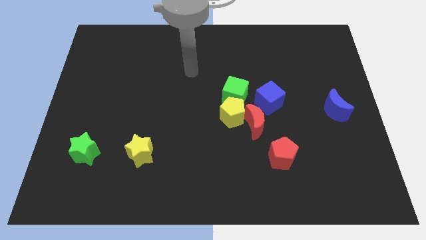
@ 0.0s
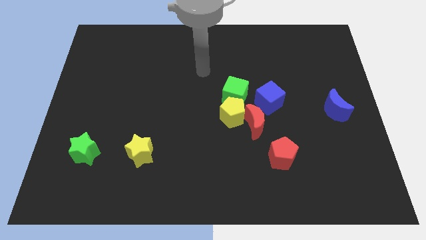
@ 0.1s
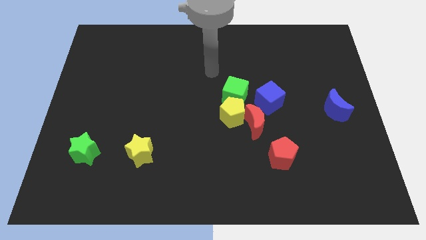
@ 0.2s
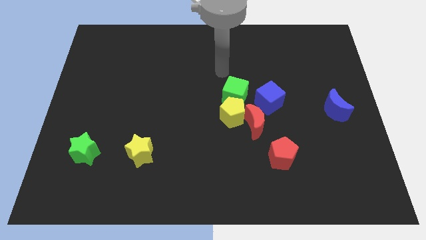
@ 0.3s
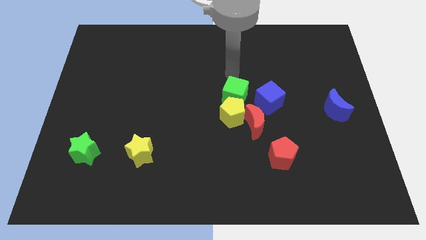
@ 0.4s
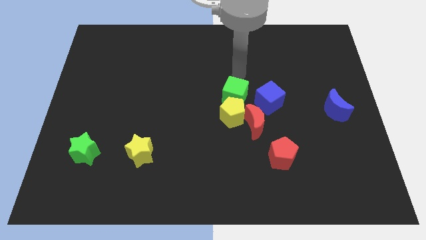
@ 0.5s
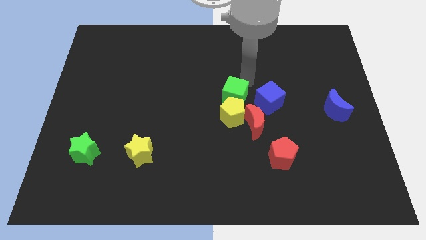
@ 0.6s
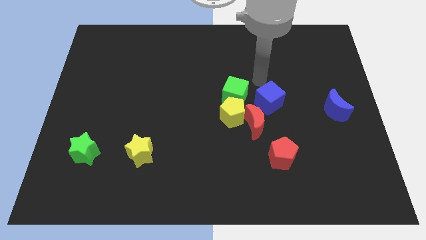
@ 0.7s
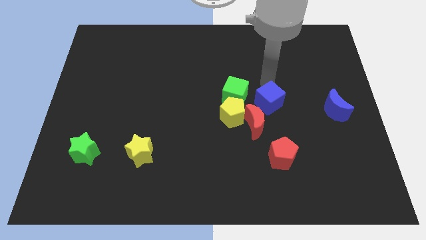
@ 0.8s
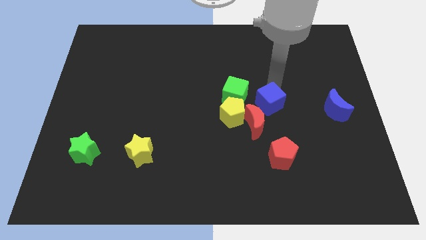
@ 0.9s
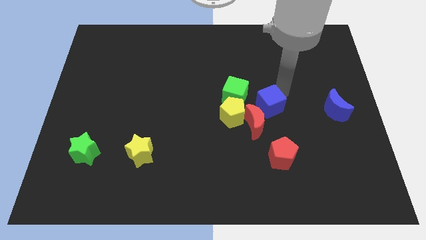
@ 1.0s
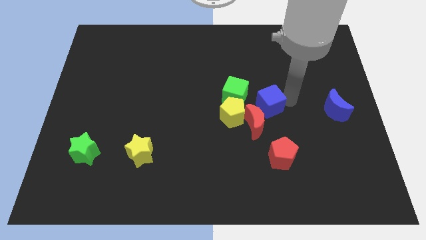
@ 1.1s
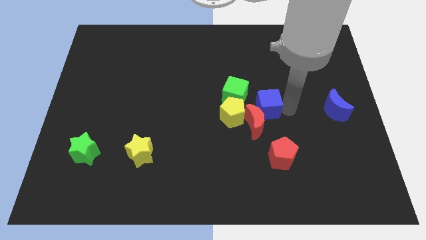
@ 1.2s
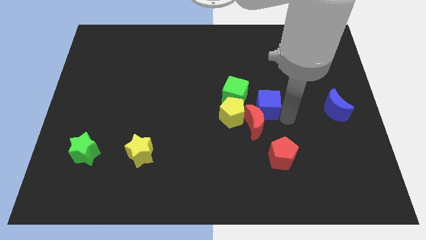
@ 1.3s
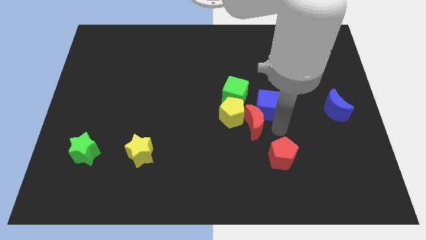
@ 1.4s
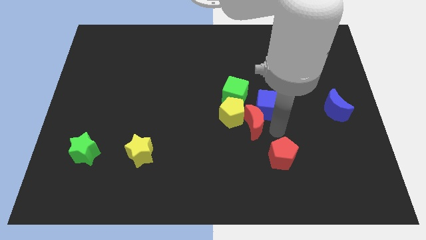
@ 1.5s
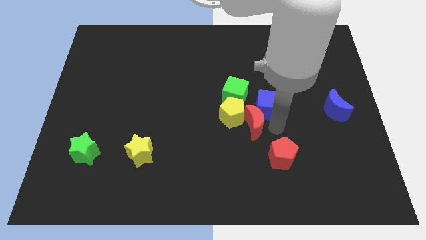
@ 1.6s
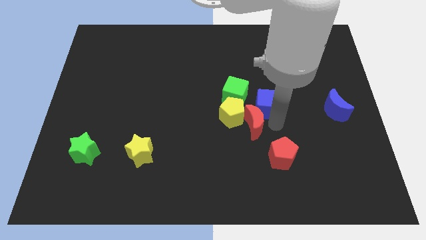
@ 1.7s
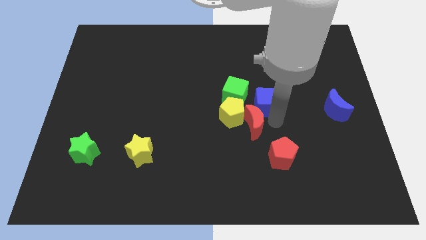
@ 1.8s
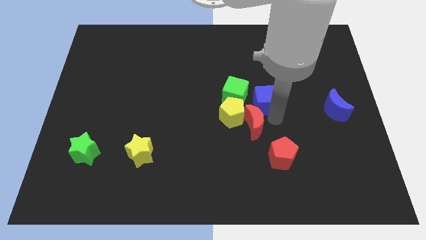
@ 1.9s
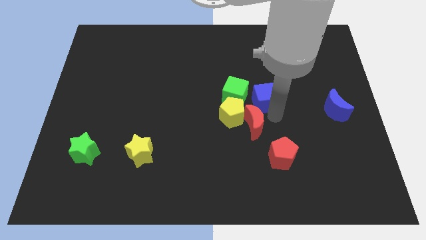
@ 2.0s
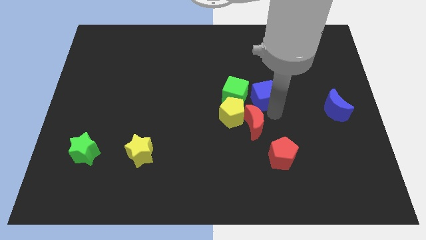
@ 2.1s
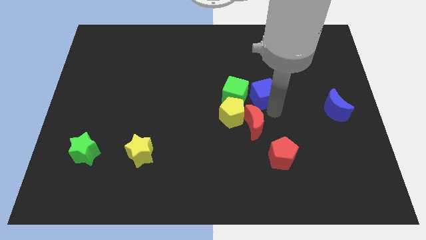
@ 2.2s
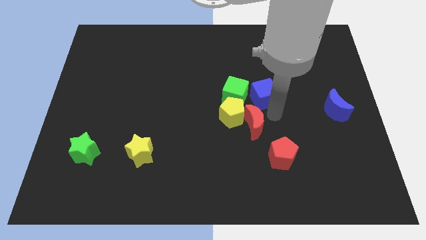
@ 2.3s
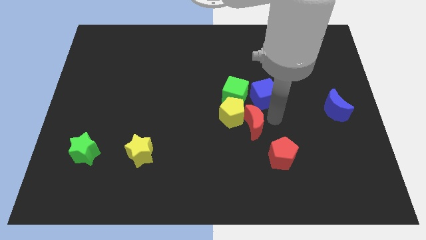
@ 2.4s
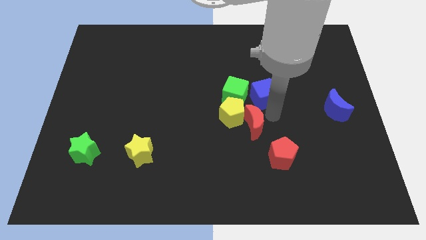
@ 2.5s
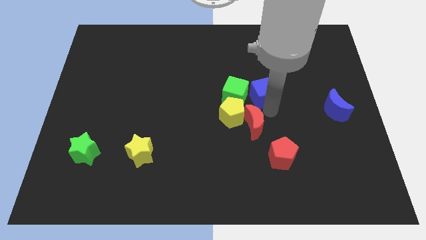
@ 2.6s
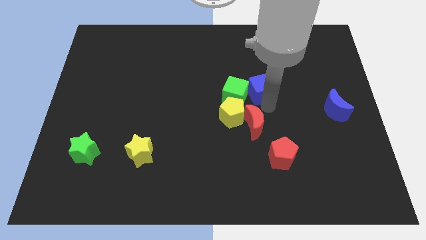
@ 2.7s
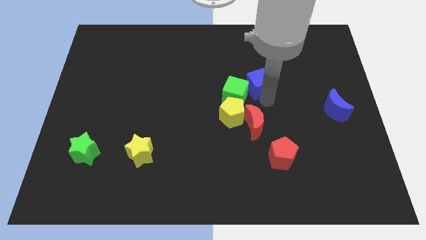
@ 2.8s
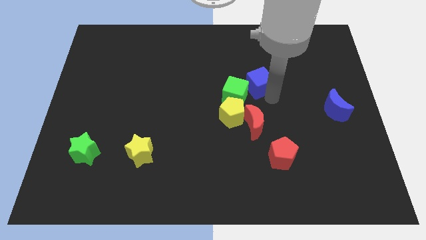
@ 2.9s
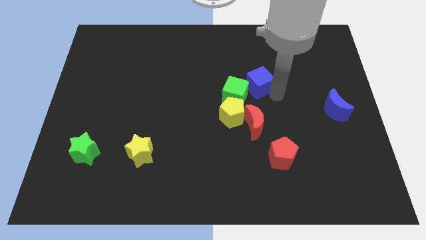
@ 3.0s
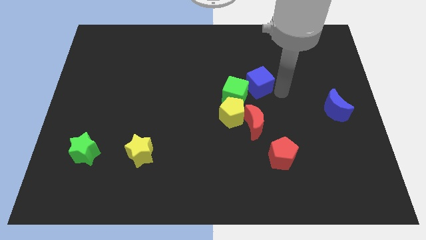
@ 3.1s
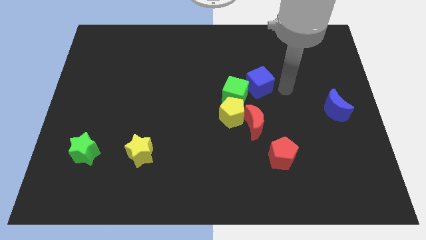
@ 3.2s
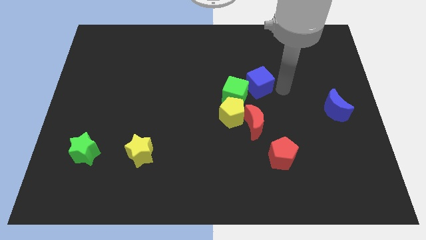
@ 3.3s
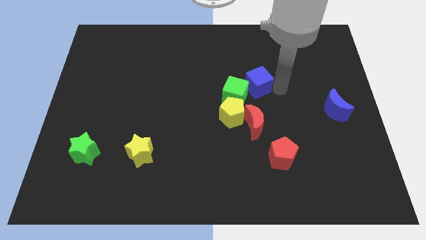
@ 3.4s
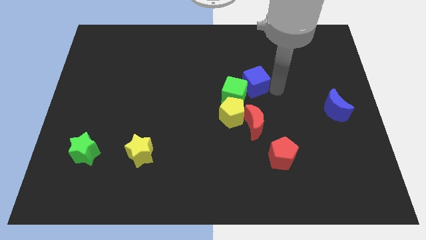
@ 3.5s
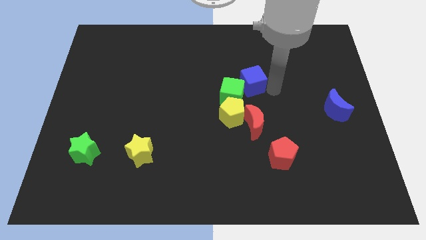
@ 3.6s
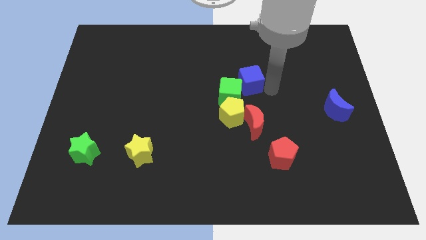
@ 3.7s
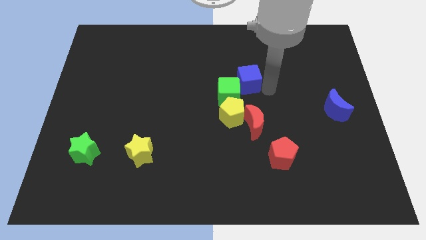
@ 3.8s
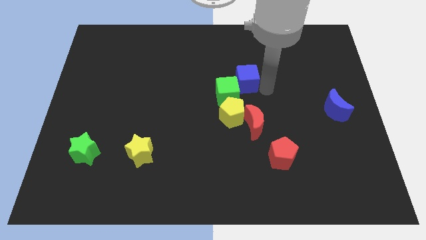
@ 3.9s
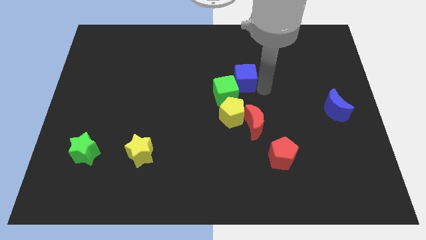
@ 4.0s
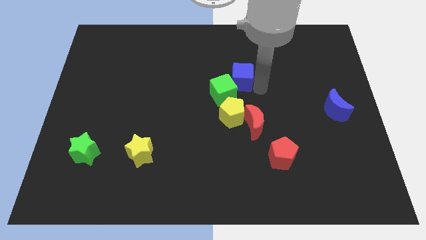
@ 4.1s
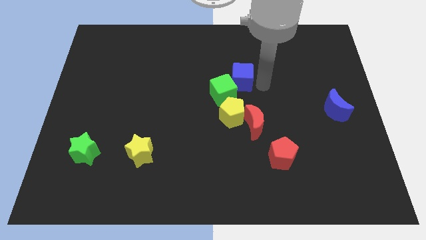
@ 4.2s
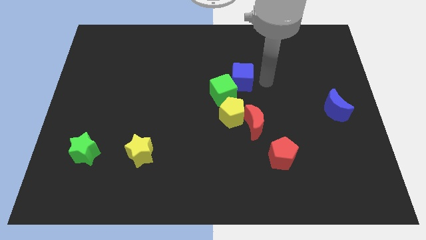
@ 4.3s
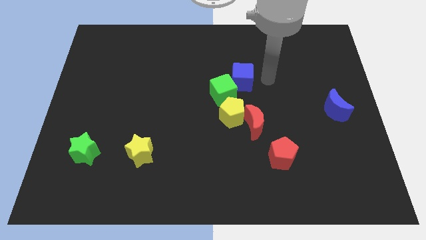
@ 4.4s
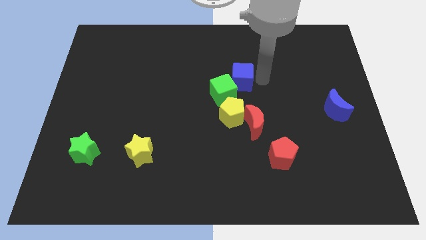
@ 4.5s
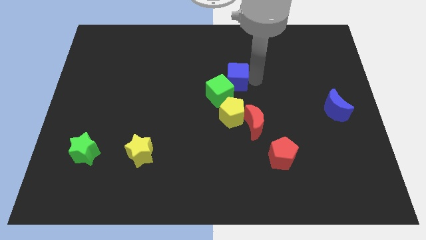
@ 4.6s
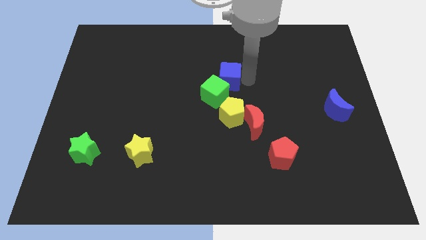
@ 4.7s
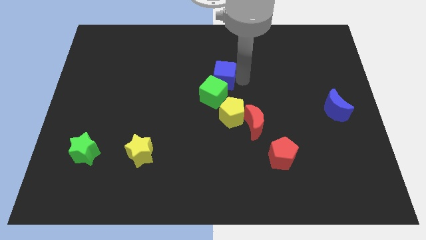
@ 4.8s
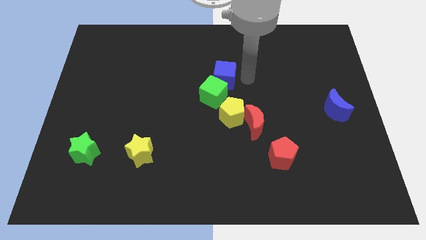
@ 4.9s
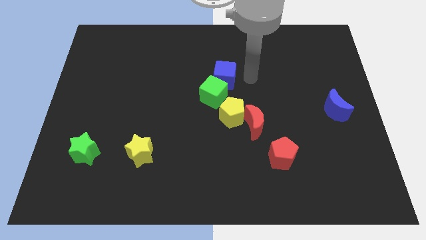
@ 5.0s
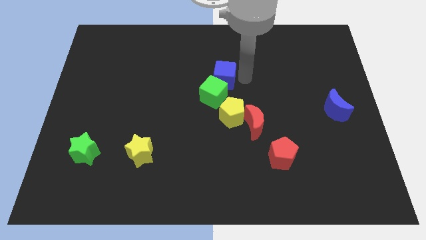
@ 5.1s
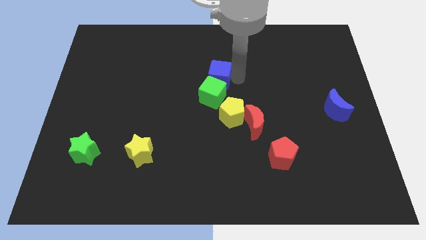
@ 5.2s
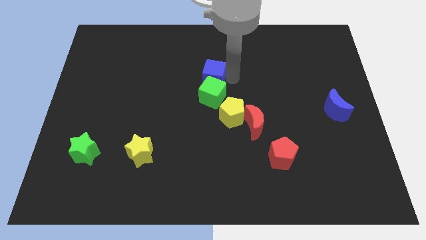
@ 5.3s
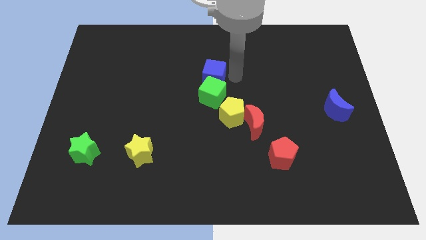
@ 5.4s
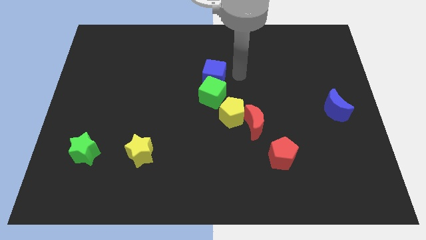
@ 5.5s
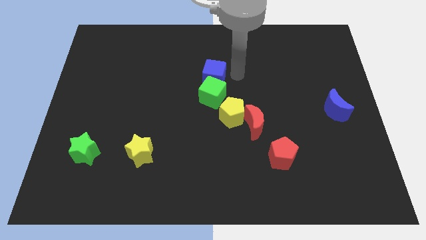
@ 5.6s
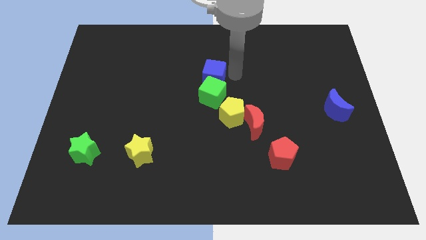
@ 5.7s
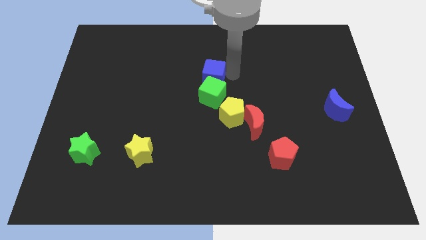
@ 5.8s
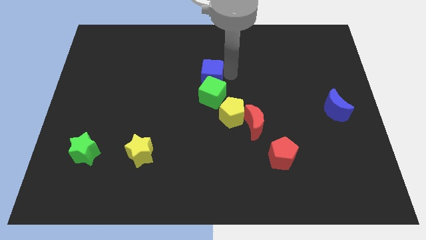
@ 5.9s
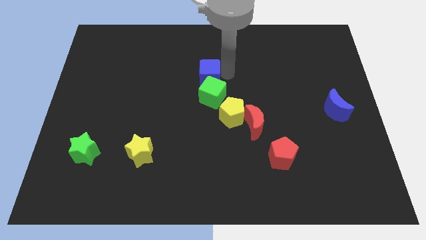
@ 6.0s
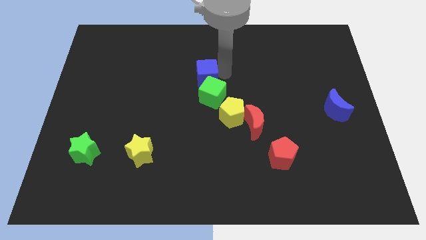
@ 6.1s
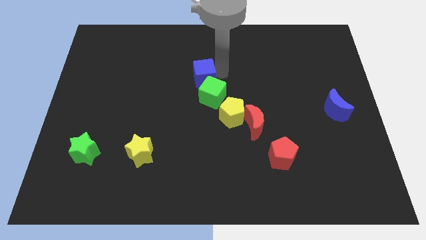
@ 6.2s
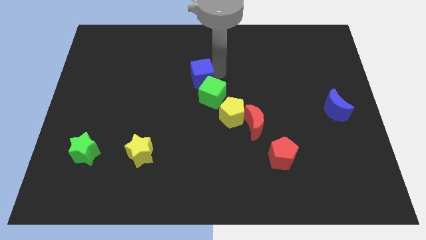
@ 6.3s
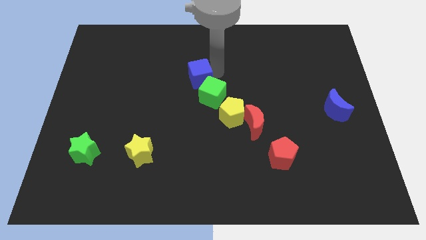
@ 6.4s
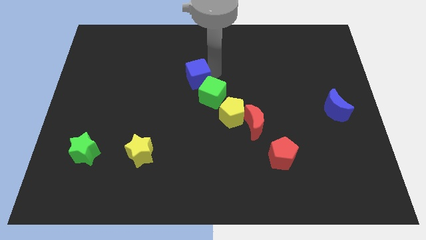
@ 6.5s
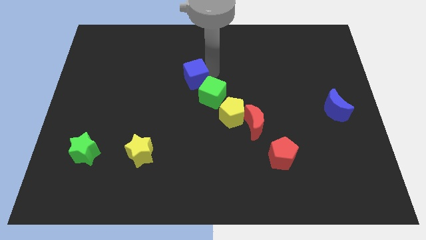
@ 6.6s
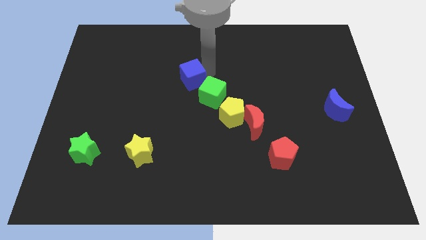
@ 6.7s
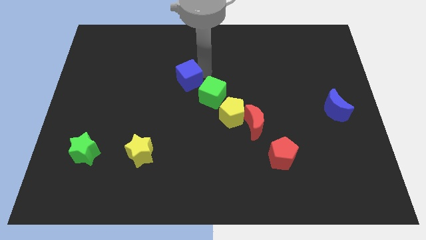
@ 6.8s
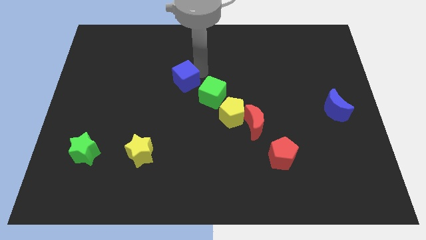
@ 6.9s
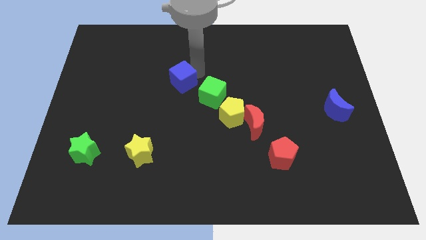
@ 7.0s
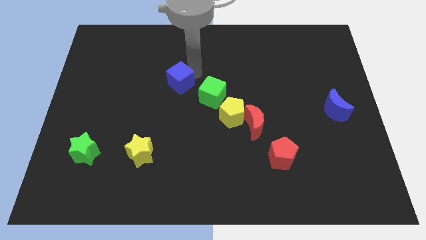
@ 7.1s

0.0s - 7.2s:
slide the blue cube to the left

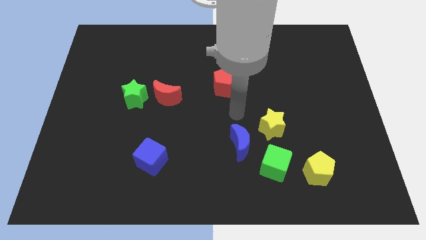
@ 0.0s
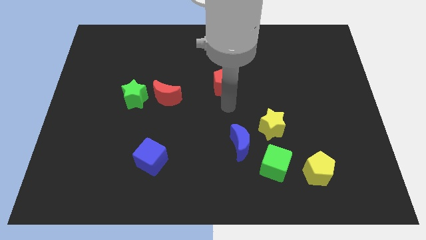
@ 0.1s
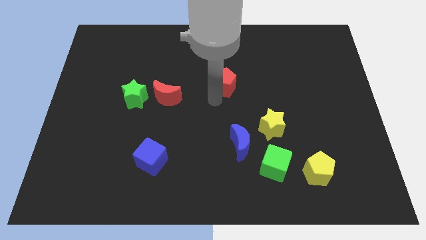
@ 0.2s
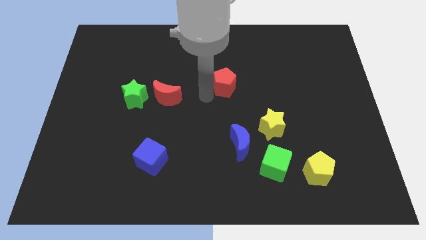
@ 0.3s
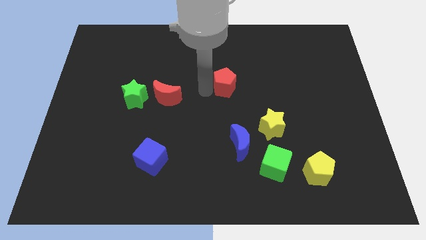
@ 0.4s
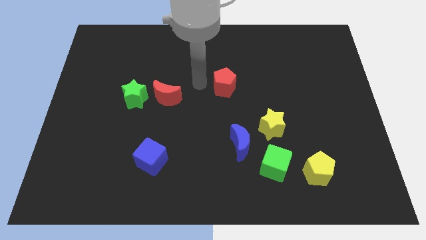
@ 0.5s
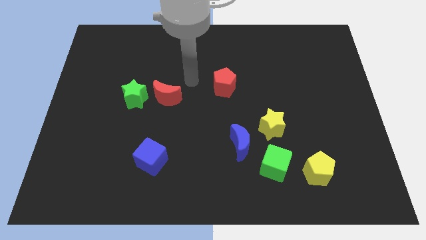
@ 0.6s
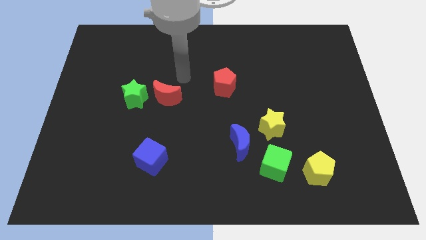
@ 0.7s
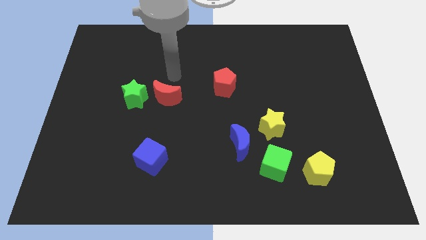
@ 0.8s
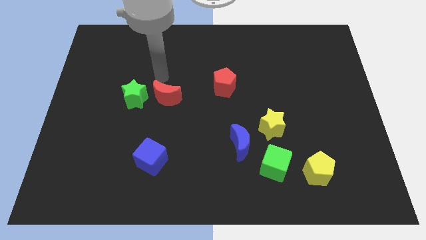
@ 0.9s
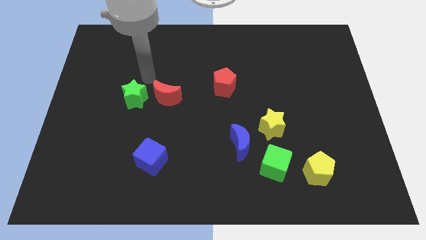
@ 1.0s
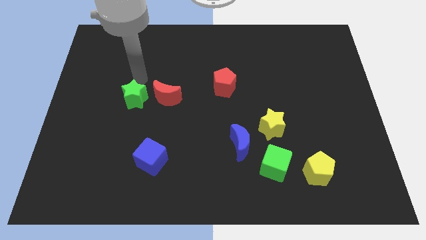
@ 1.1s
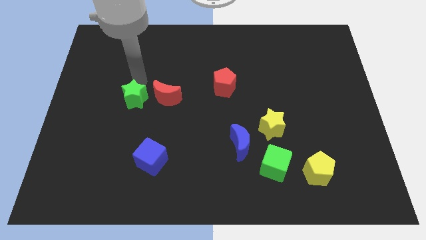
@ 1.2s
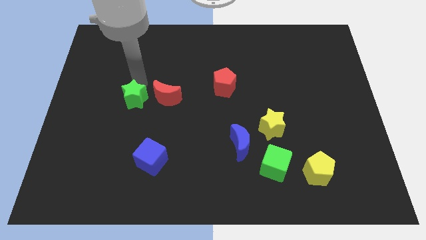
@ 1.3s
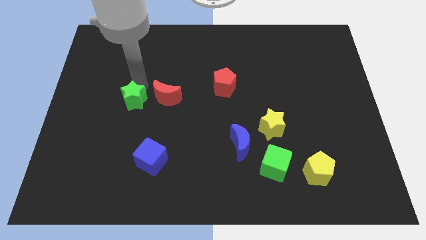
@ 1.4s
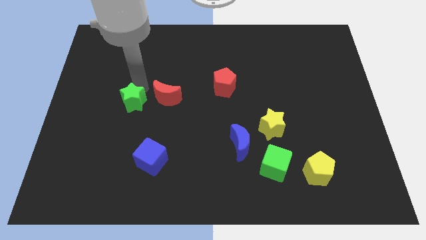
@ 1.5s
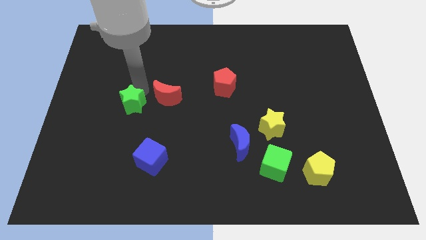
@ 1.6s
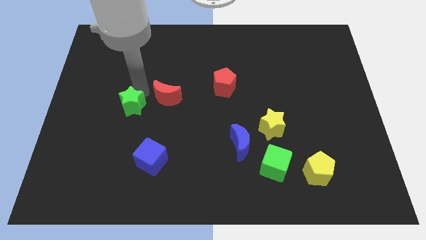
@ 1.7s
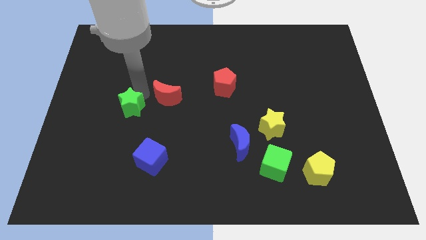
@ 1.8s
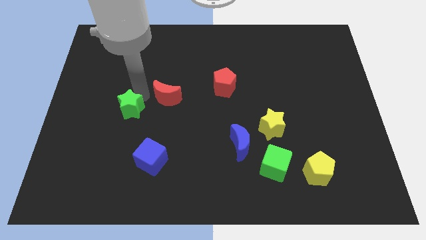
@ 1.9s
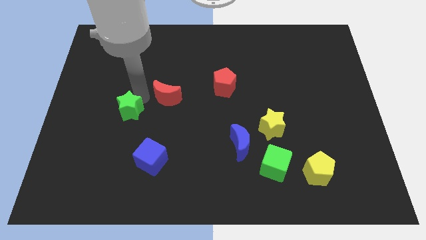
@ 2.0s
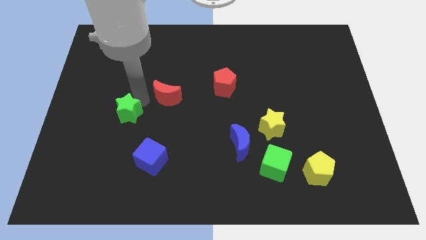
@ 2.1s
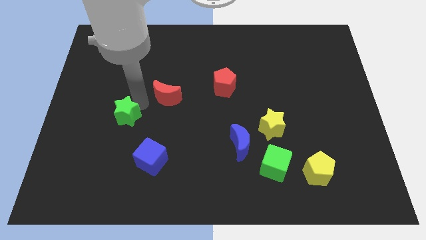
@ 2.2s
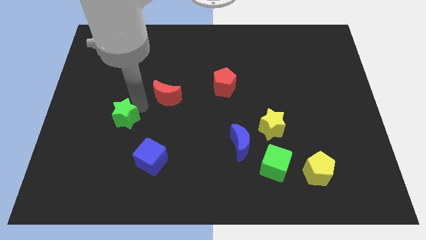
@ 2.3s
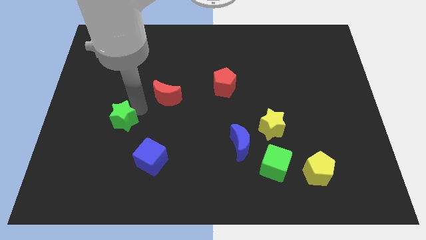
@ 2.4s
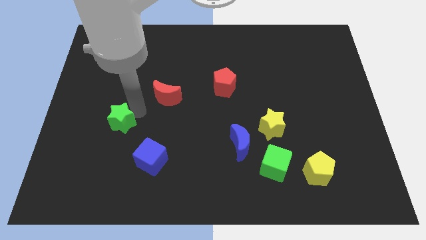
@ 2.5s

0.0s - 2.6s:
move the green star down a bit
